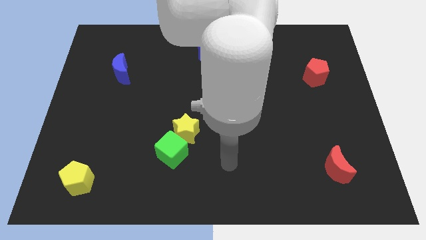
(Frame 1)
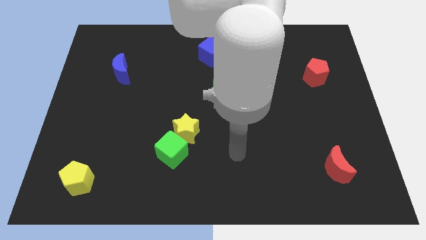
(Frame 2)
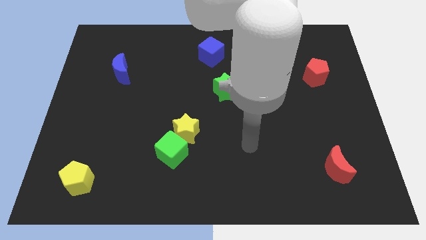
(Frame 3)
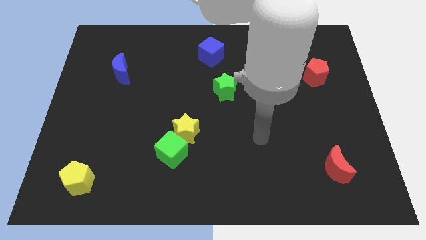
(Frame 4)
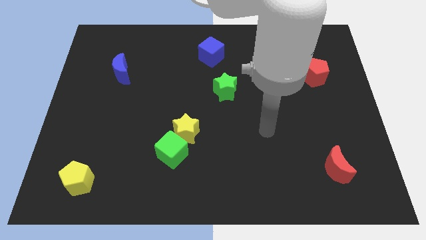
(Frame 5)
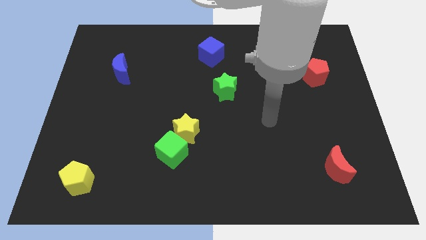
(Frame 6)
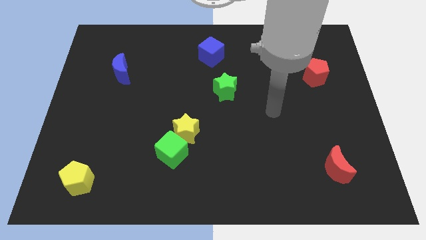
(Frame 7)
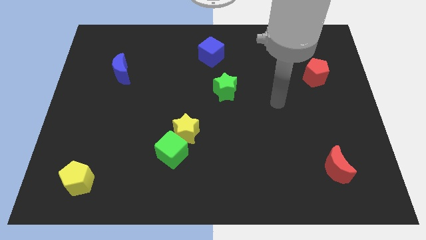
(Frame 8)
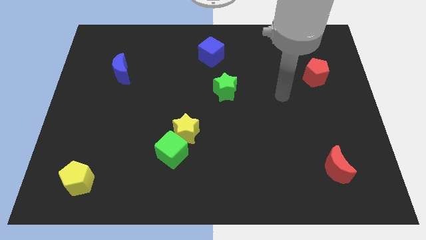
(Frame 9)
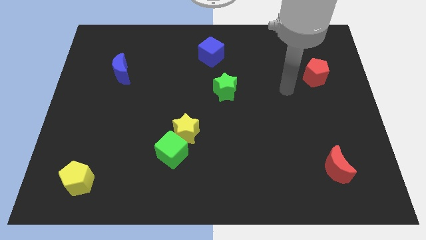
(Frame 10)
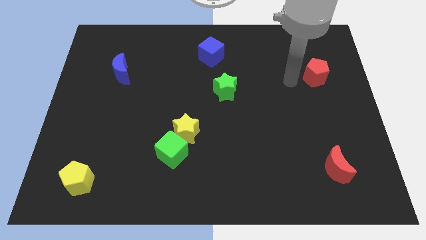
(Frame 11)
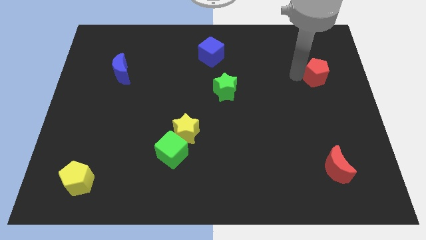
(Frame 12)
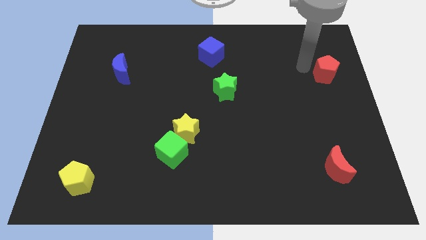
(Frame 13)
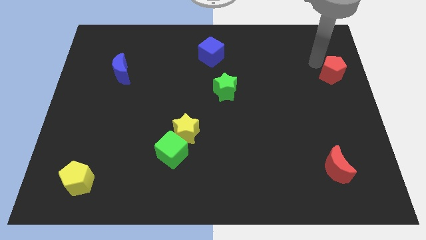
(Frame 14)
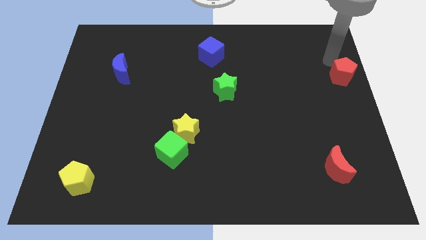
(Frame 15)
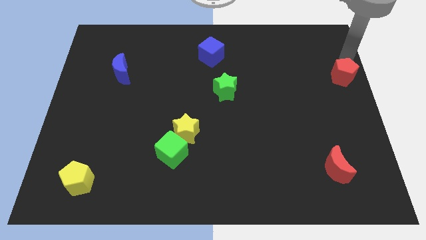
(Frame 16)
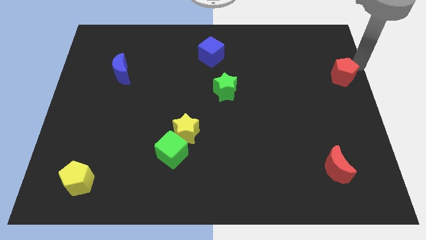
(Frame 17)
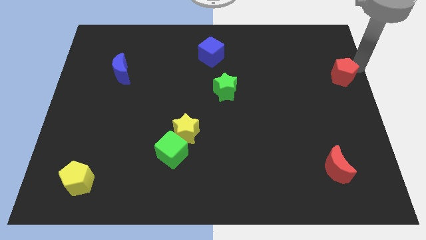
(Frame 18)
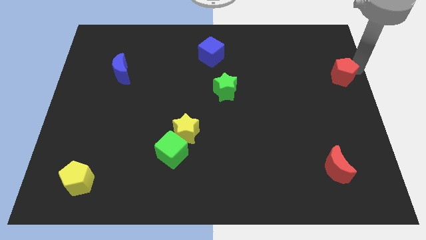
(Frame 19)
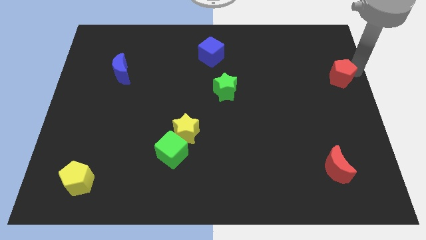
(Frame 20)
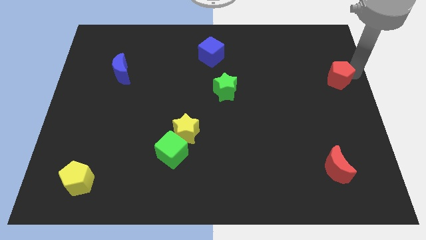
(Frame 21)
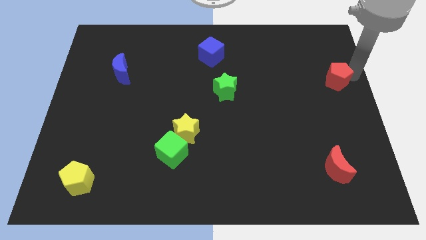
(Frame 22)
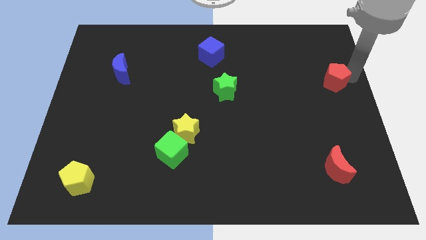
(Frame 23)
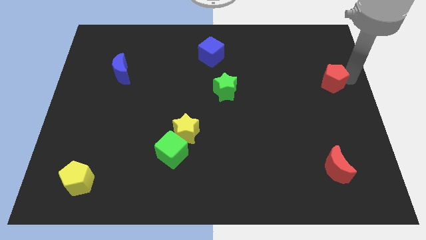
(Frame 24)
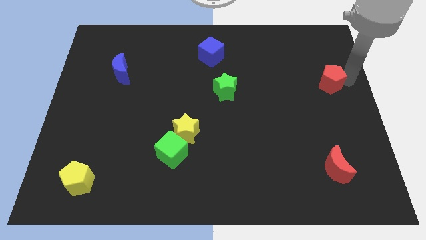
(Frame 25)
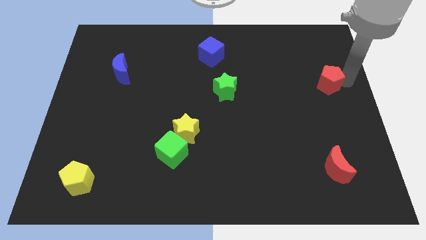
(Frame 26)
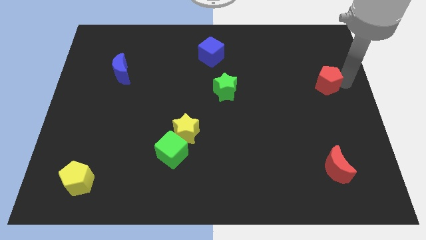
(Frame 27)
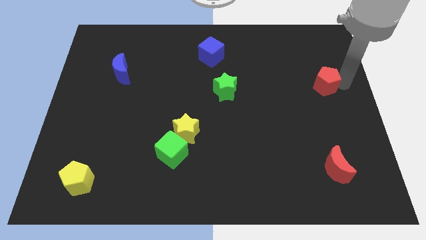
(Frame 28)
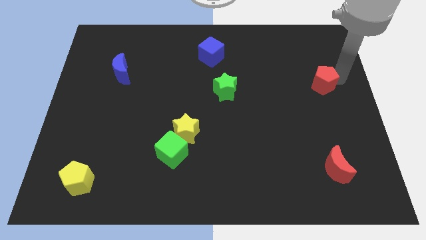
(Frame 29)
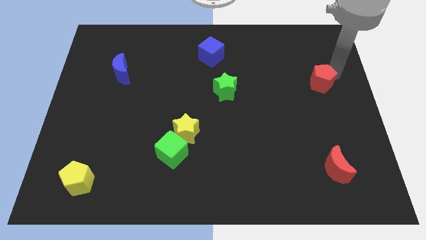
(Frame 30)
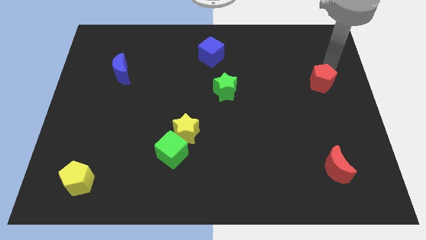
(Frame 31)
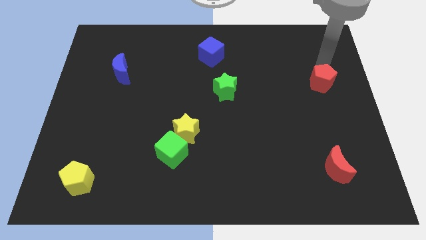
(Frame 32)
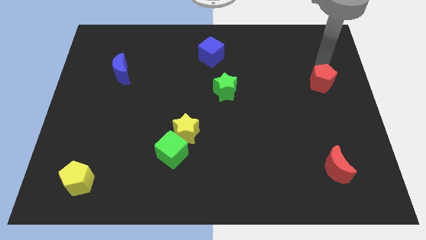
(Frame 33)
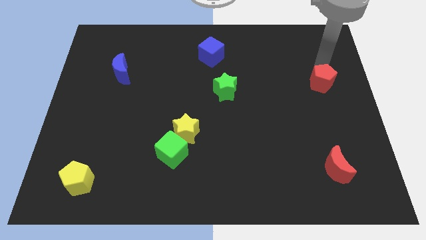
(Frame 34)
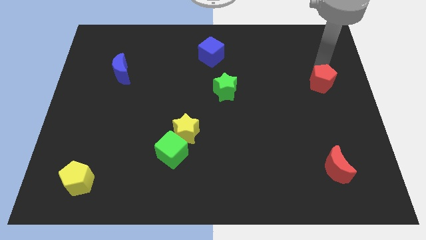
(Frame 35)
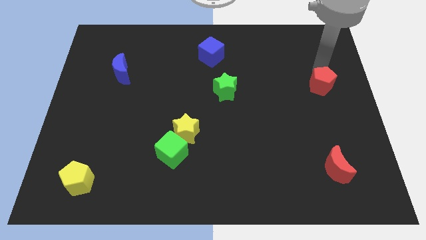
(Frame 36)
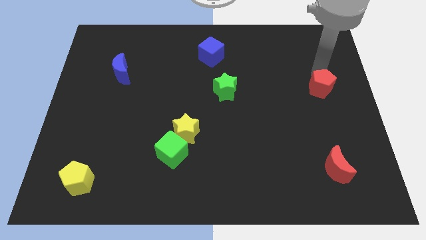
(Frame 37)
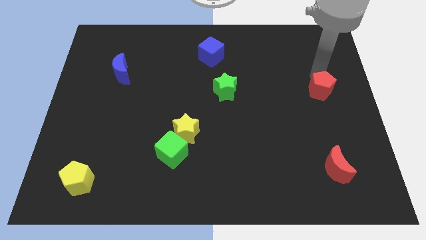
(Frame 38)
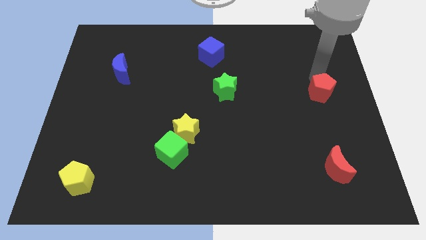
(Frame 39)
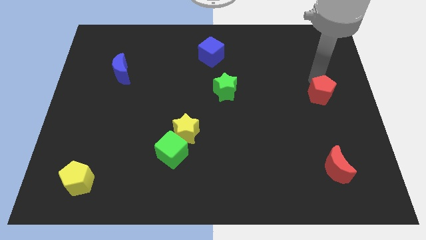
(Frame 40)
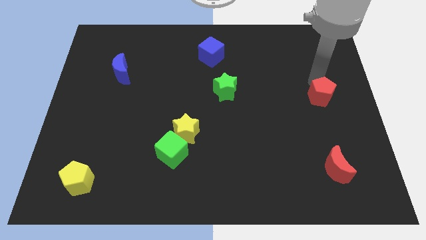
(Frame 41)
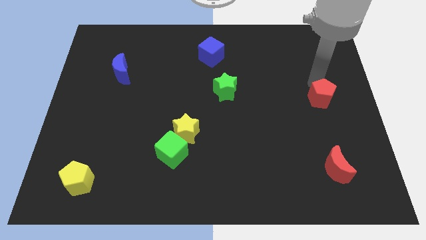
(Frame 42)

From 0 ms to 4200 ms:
slightly move the red pentagon downwards

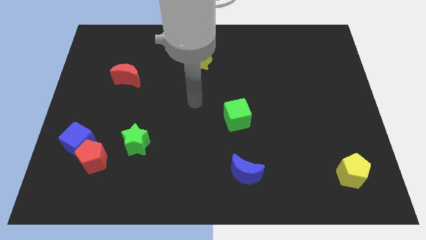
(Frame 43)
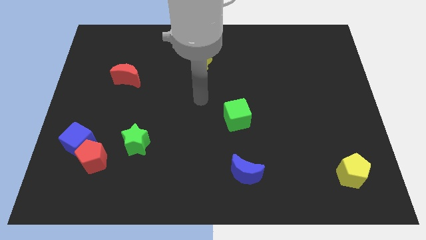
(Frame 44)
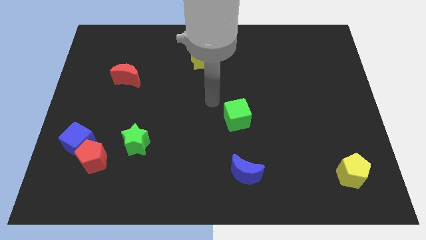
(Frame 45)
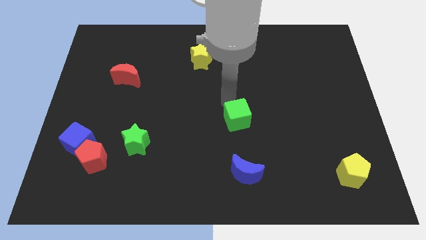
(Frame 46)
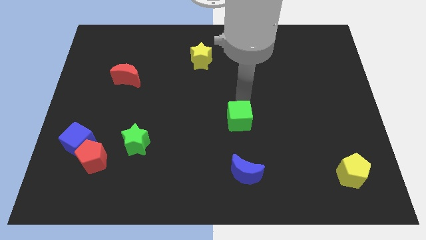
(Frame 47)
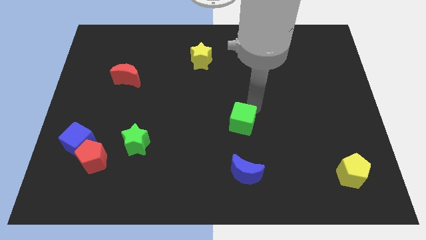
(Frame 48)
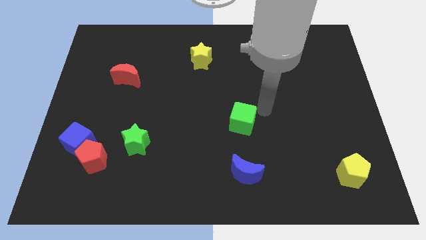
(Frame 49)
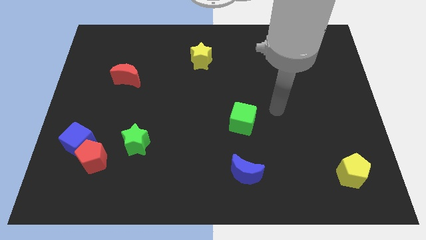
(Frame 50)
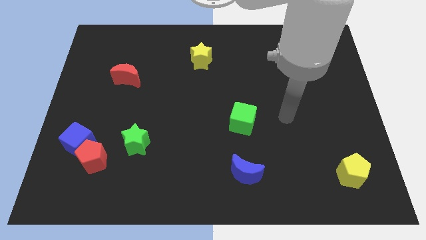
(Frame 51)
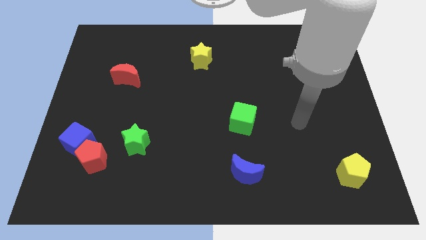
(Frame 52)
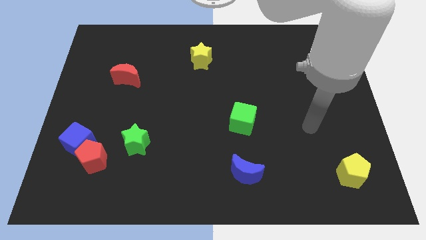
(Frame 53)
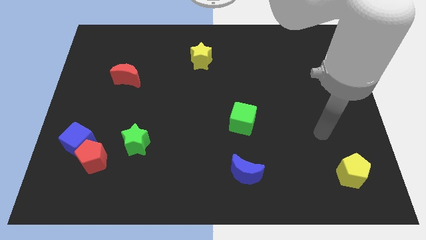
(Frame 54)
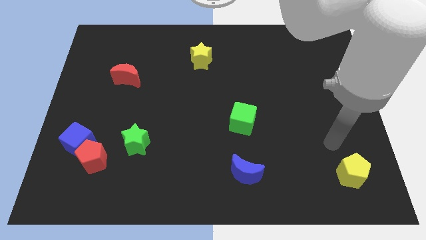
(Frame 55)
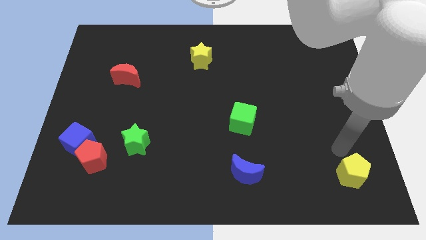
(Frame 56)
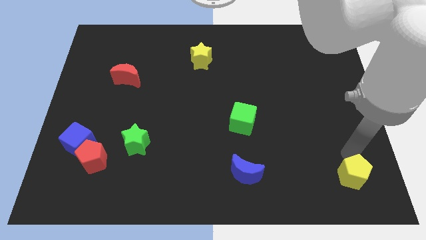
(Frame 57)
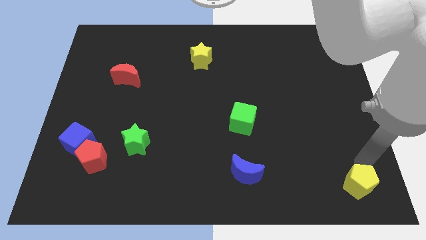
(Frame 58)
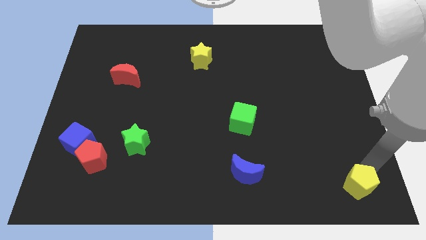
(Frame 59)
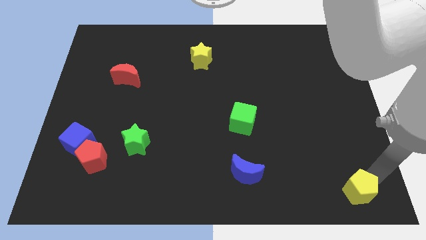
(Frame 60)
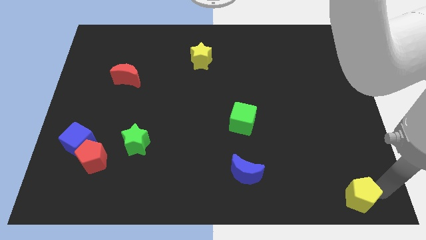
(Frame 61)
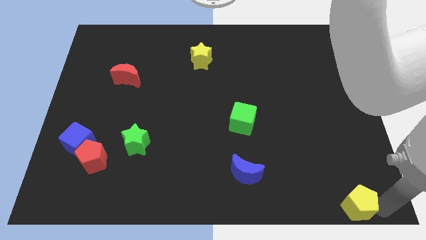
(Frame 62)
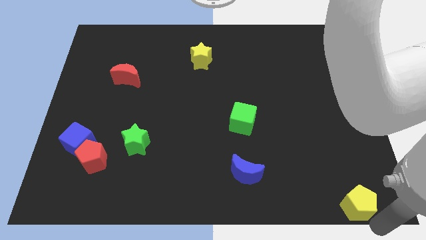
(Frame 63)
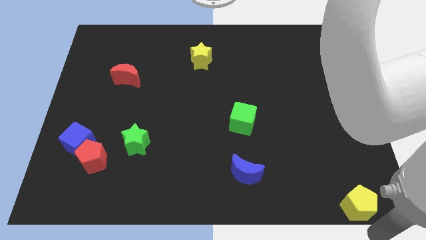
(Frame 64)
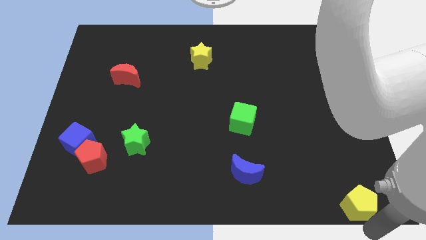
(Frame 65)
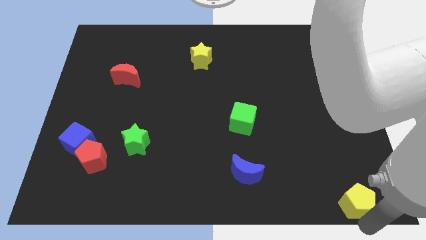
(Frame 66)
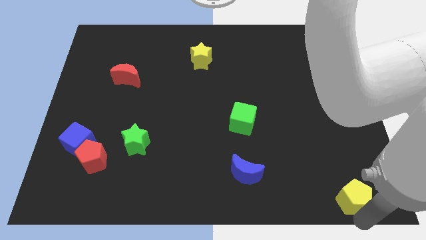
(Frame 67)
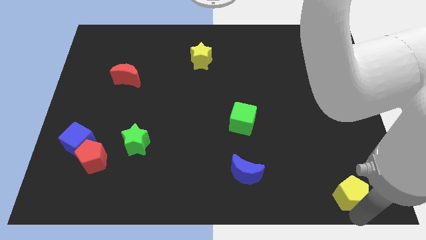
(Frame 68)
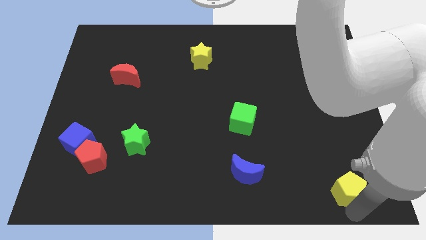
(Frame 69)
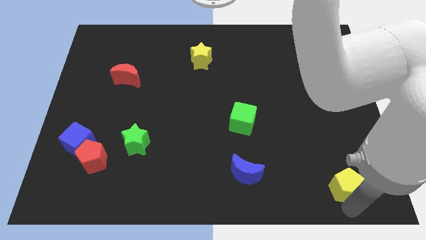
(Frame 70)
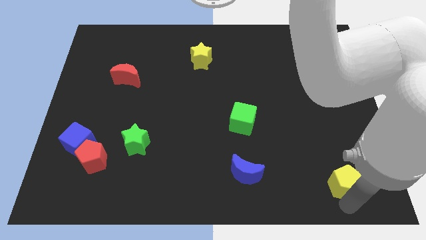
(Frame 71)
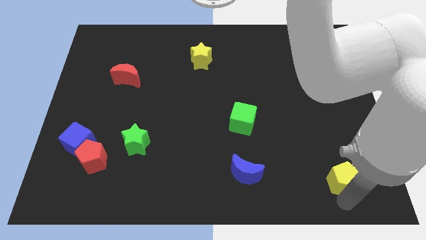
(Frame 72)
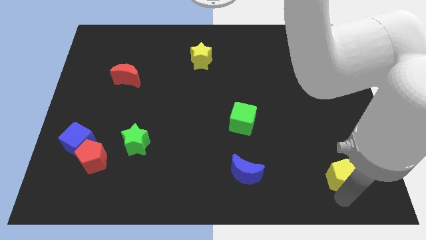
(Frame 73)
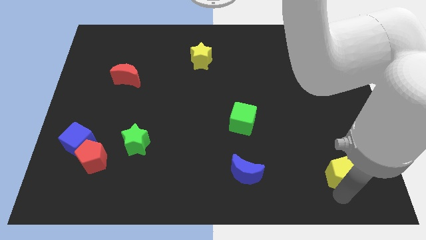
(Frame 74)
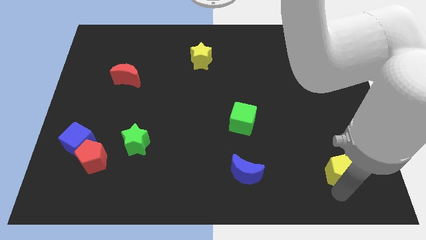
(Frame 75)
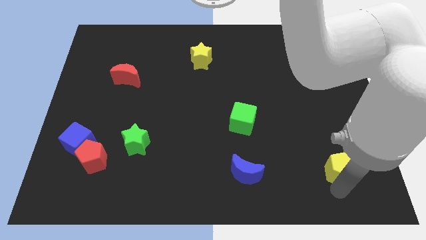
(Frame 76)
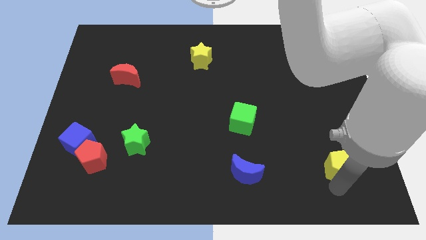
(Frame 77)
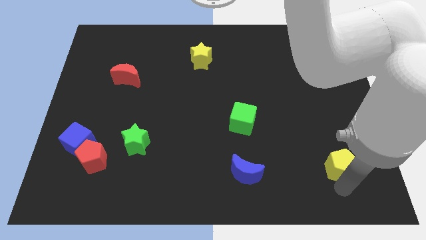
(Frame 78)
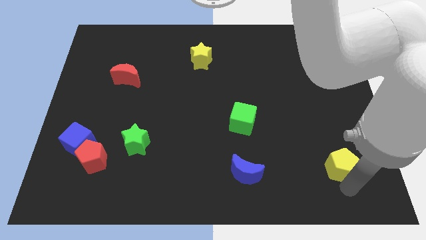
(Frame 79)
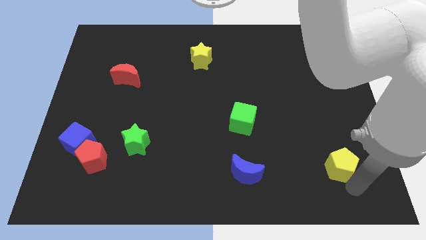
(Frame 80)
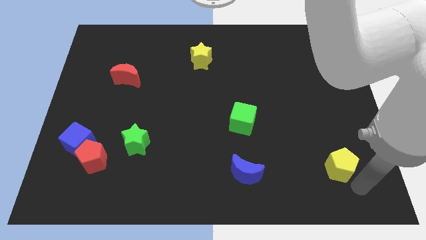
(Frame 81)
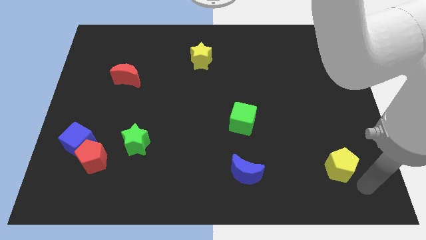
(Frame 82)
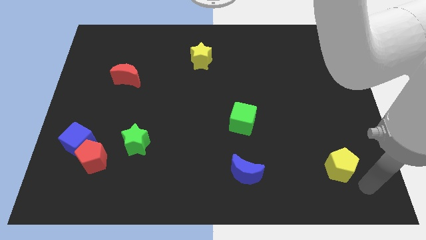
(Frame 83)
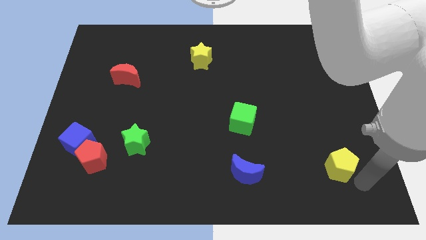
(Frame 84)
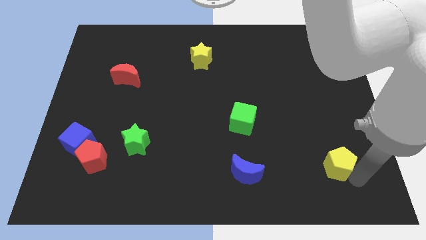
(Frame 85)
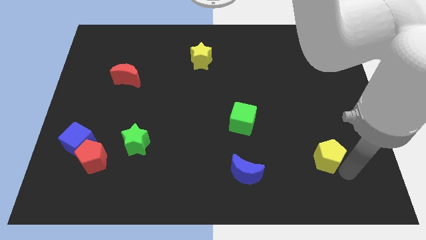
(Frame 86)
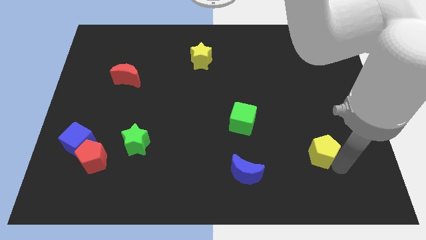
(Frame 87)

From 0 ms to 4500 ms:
slide the yellow pentagon up and then left a bit
